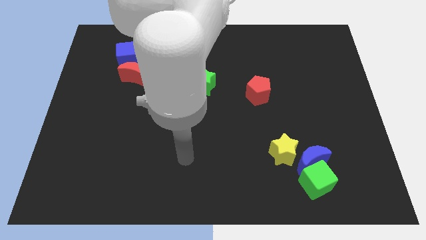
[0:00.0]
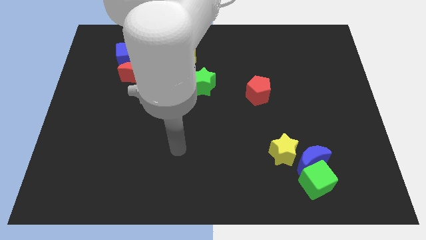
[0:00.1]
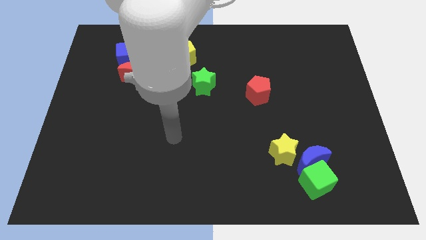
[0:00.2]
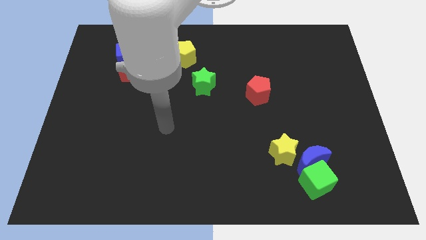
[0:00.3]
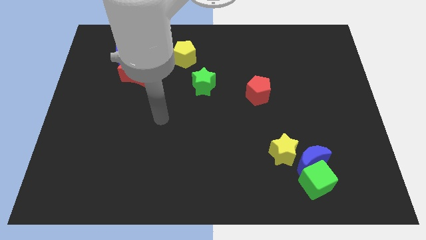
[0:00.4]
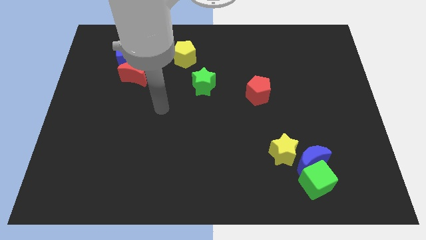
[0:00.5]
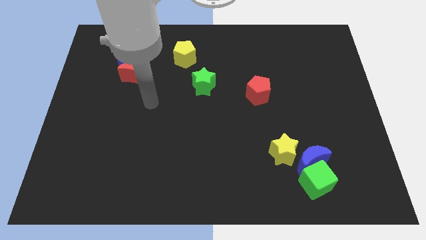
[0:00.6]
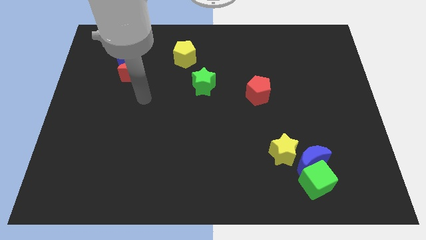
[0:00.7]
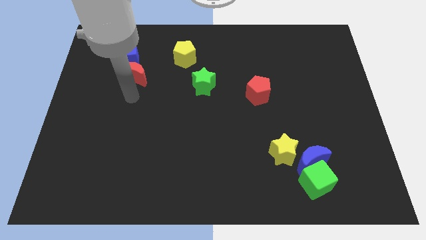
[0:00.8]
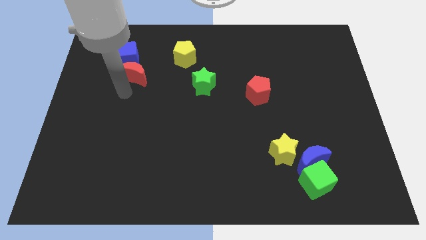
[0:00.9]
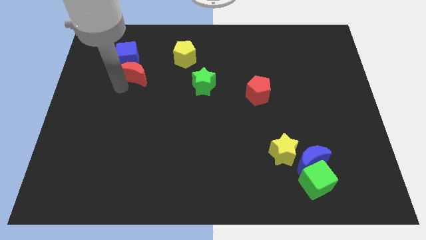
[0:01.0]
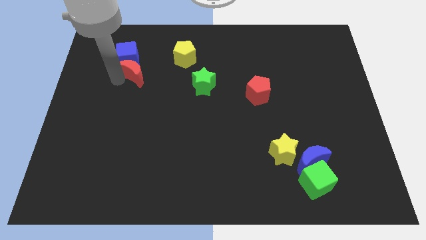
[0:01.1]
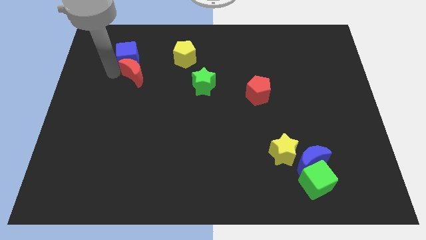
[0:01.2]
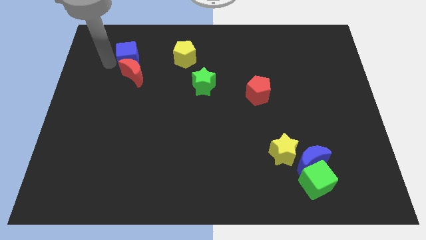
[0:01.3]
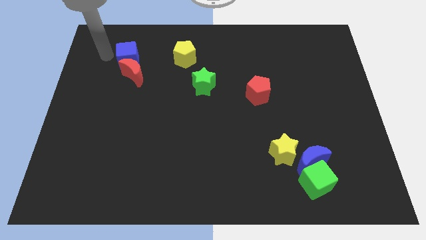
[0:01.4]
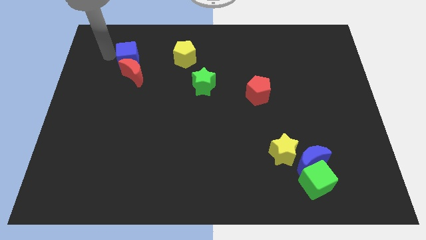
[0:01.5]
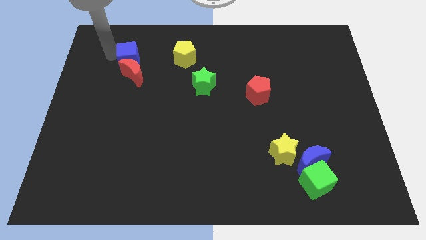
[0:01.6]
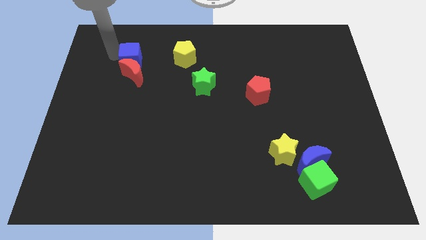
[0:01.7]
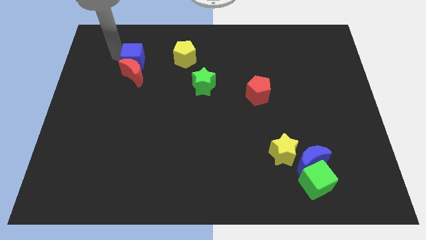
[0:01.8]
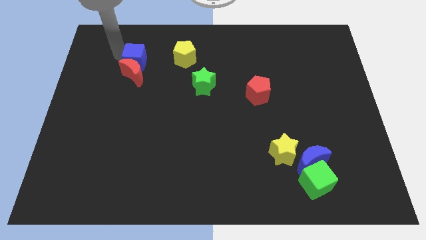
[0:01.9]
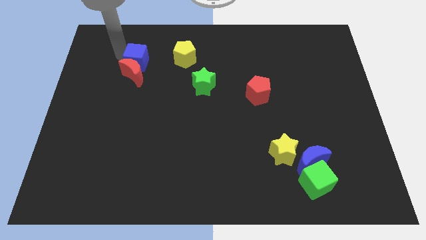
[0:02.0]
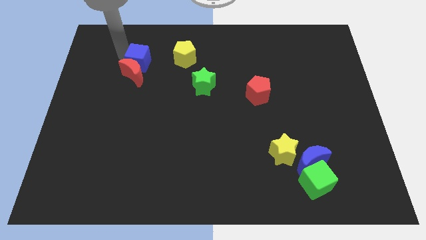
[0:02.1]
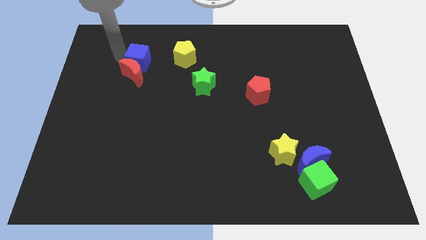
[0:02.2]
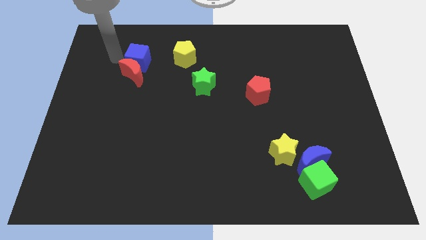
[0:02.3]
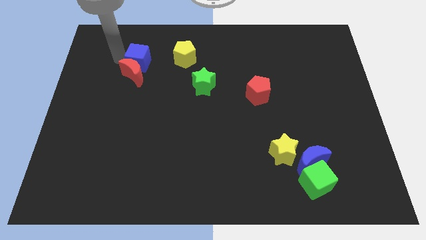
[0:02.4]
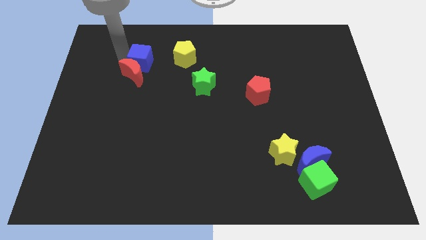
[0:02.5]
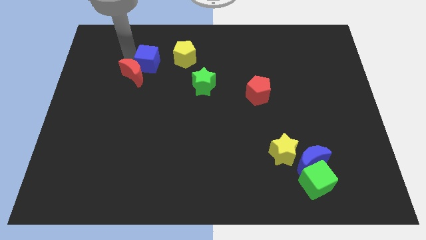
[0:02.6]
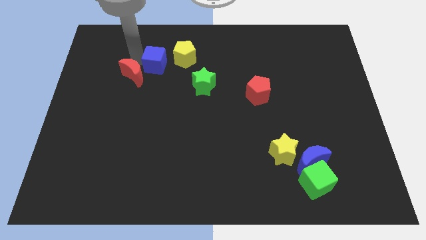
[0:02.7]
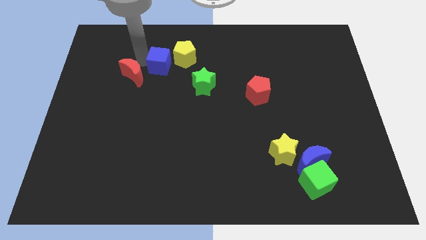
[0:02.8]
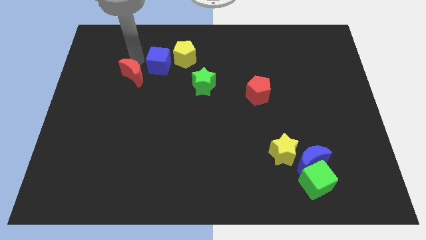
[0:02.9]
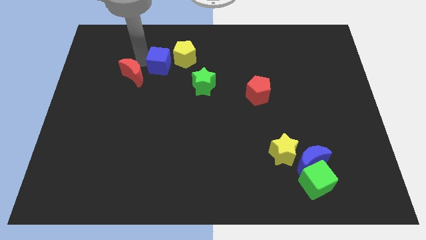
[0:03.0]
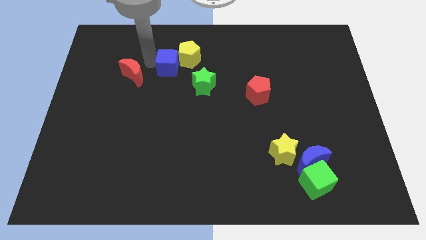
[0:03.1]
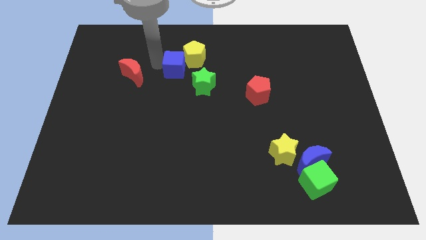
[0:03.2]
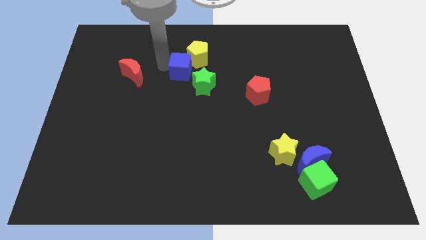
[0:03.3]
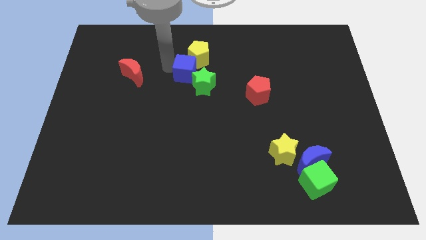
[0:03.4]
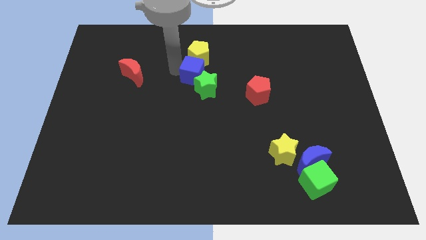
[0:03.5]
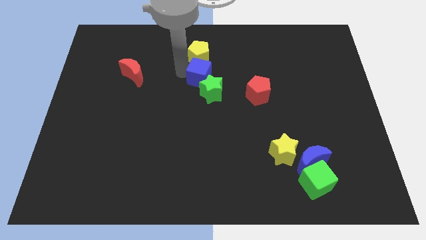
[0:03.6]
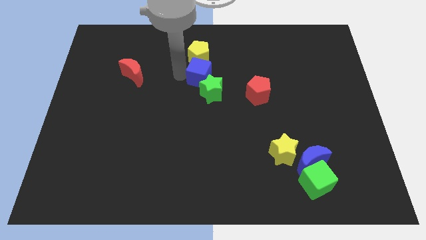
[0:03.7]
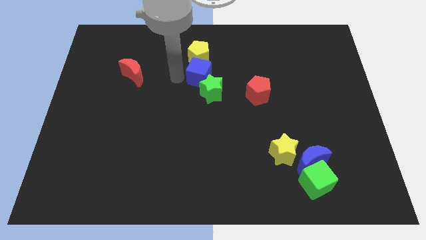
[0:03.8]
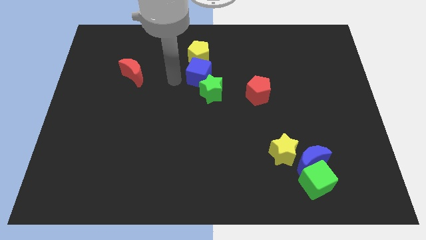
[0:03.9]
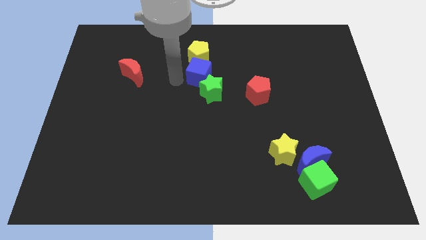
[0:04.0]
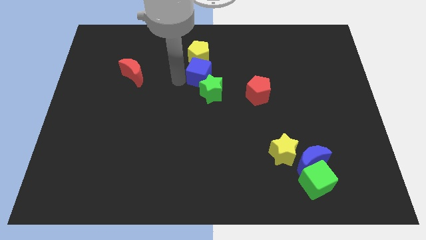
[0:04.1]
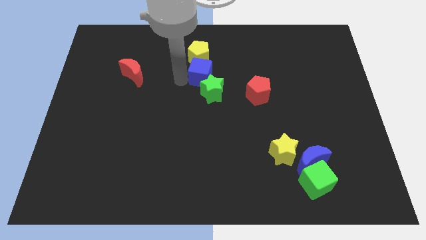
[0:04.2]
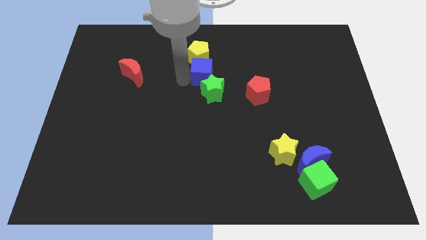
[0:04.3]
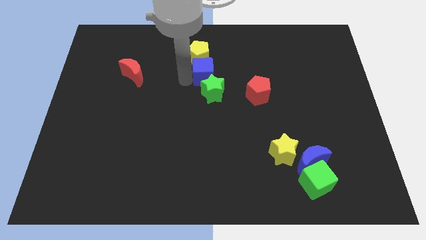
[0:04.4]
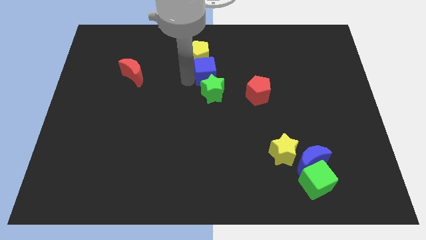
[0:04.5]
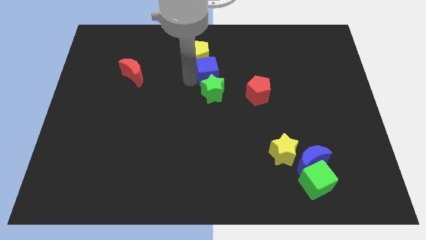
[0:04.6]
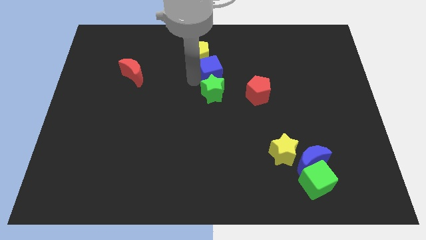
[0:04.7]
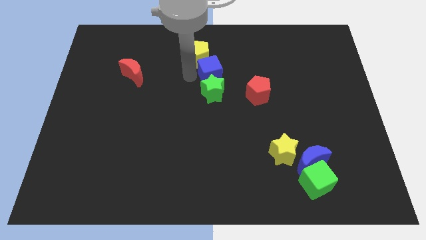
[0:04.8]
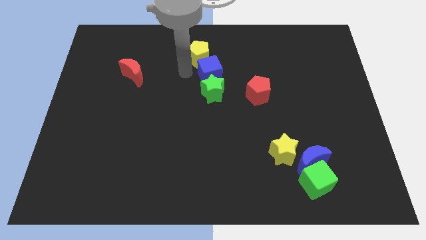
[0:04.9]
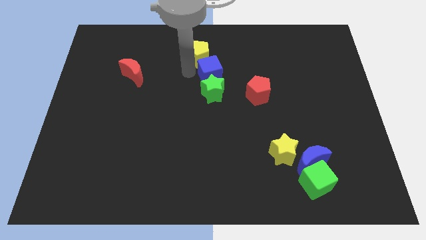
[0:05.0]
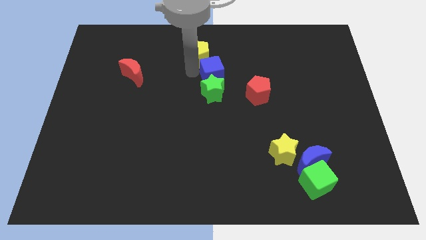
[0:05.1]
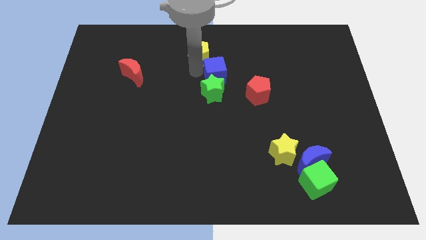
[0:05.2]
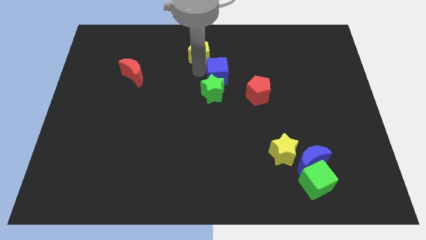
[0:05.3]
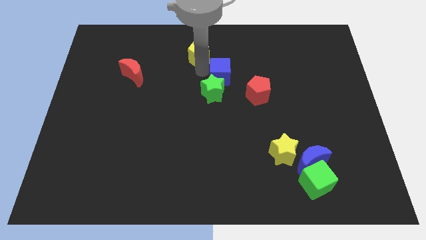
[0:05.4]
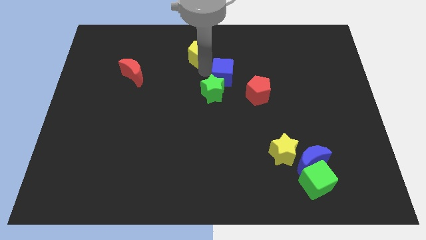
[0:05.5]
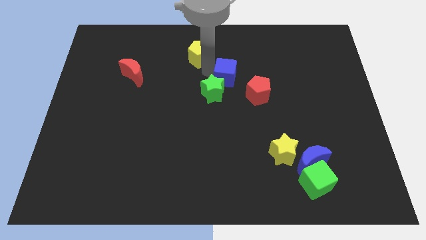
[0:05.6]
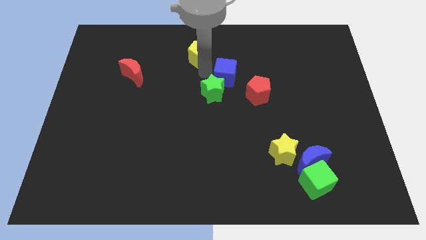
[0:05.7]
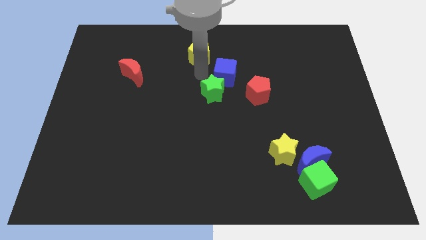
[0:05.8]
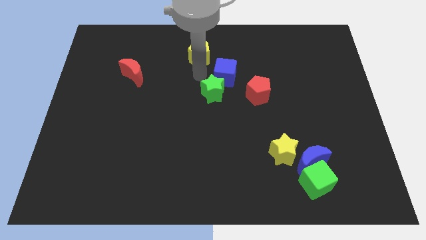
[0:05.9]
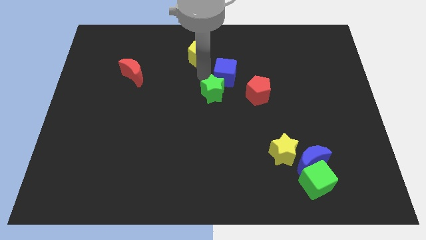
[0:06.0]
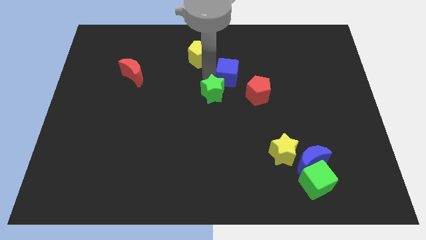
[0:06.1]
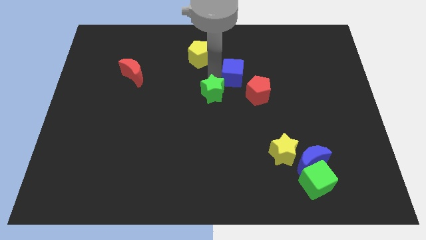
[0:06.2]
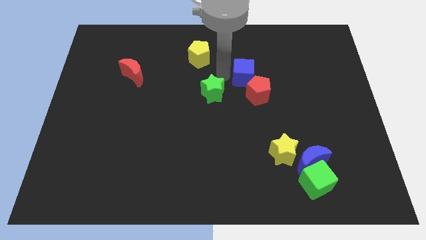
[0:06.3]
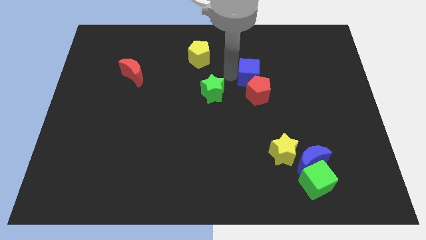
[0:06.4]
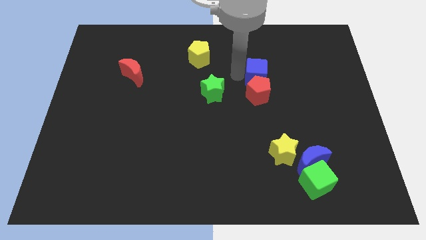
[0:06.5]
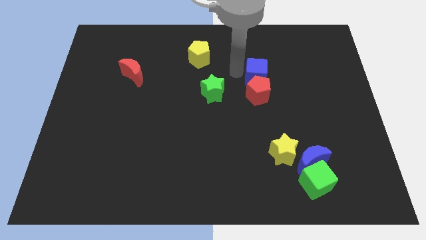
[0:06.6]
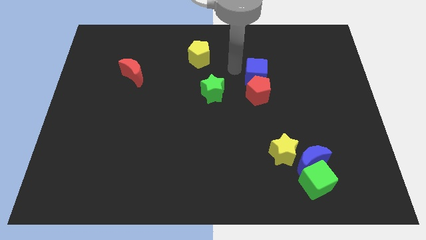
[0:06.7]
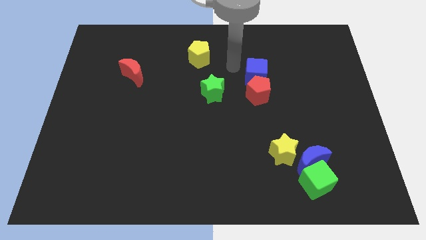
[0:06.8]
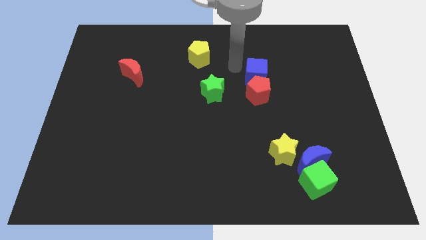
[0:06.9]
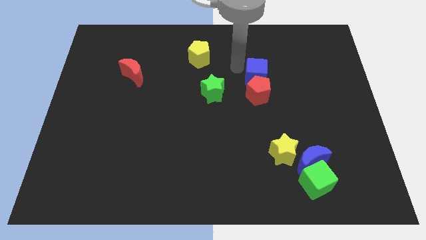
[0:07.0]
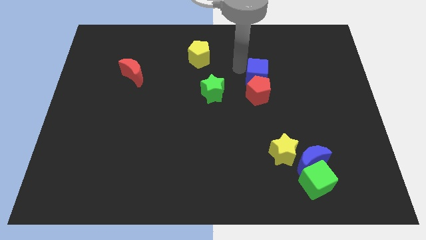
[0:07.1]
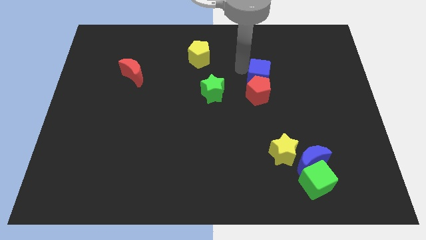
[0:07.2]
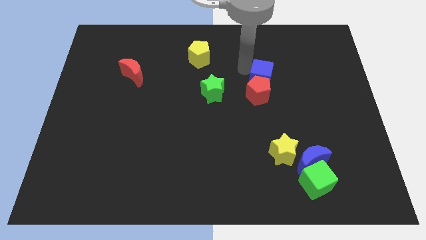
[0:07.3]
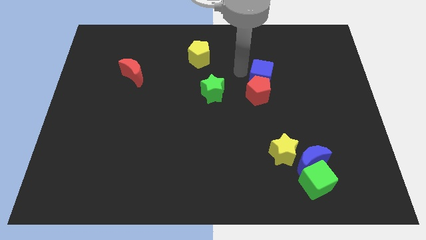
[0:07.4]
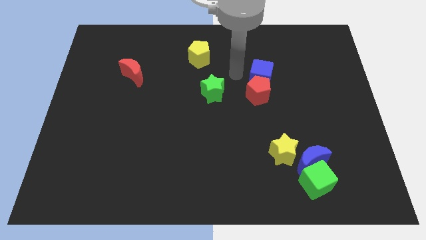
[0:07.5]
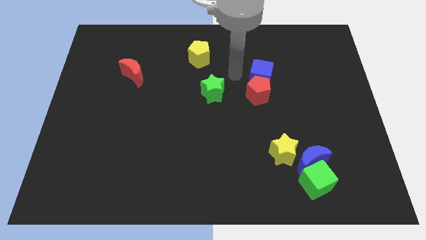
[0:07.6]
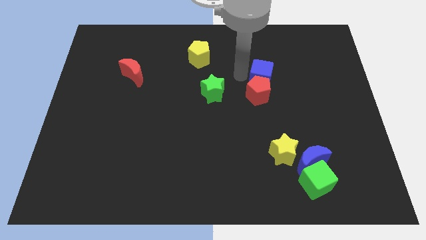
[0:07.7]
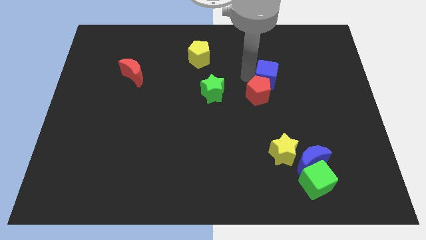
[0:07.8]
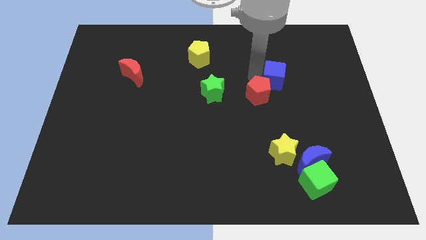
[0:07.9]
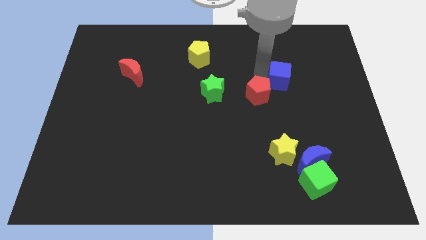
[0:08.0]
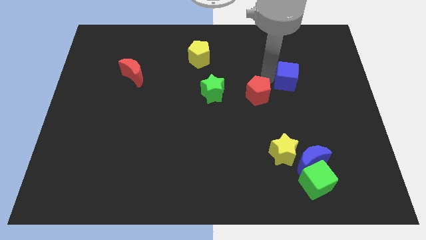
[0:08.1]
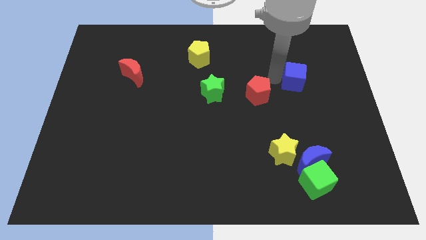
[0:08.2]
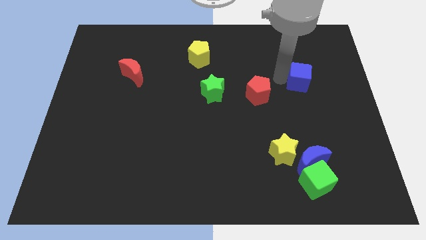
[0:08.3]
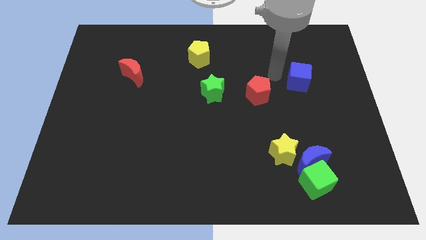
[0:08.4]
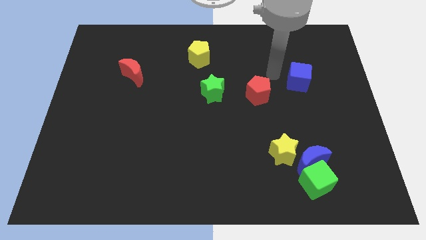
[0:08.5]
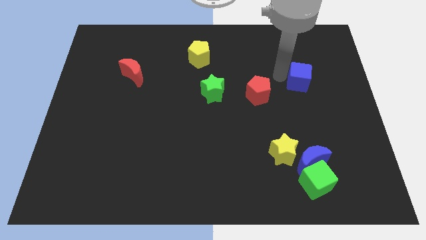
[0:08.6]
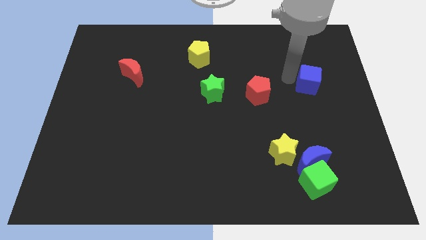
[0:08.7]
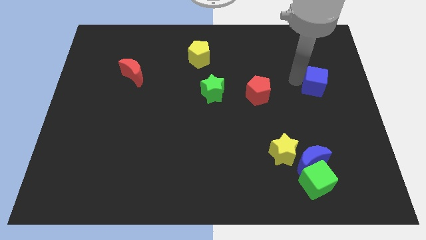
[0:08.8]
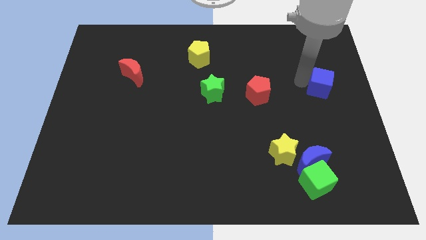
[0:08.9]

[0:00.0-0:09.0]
put the blue cube to the right side of the board
